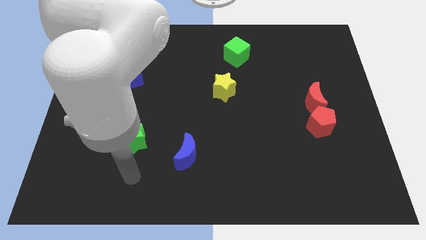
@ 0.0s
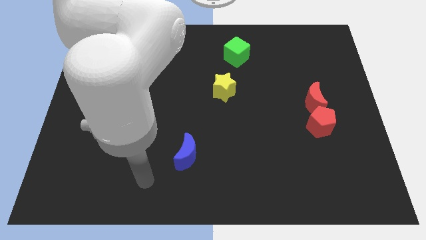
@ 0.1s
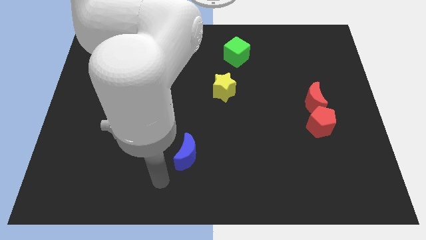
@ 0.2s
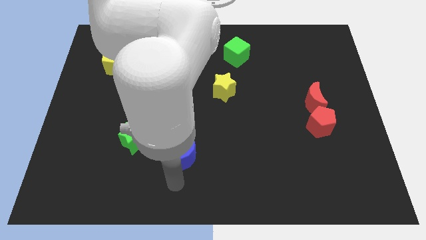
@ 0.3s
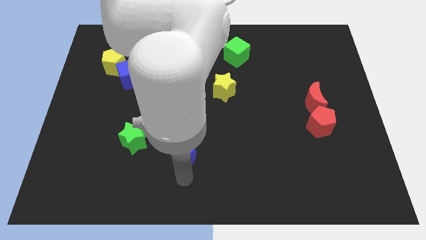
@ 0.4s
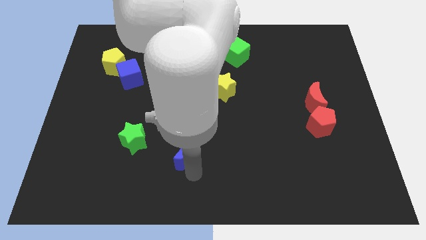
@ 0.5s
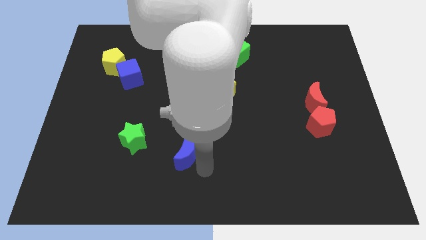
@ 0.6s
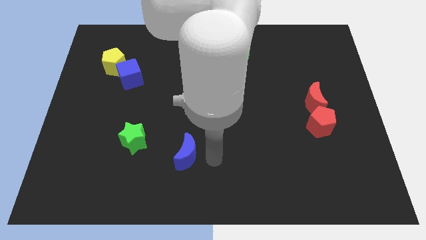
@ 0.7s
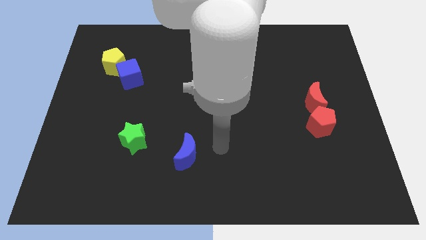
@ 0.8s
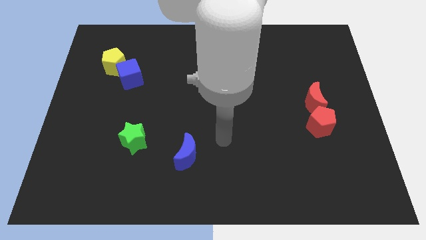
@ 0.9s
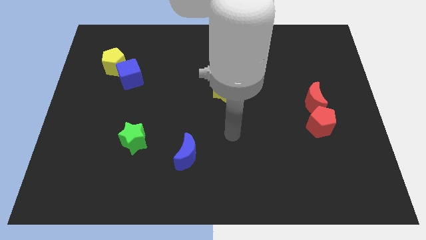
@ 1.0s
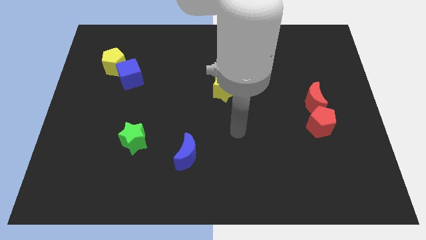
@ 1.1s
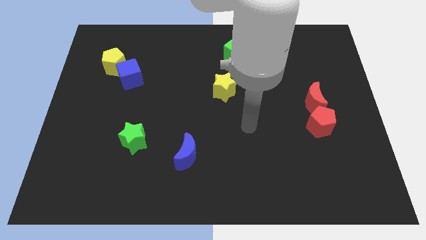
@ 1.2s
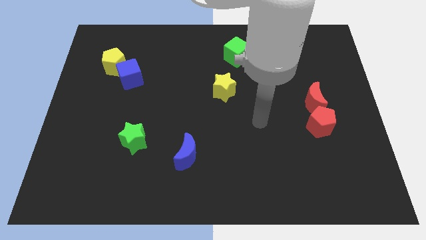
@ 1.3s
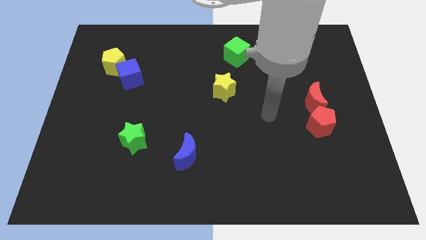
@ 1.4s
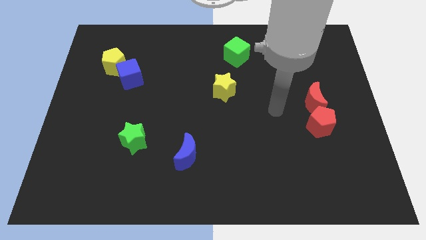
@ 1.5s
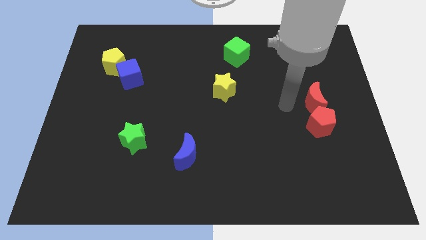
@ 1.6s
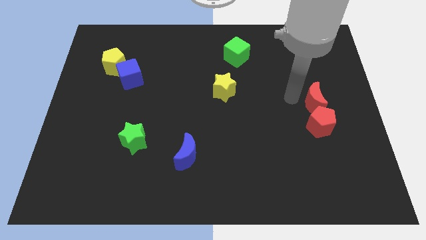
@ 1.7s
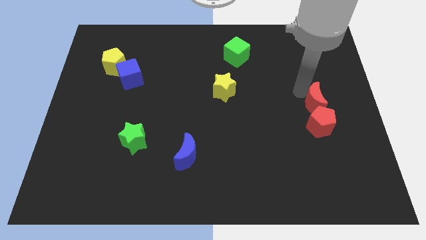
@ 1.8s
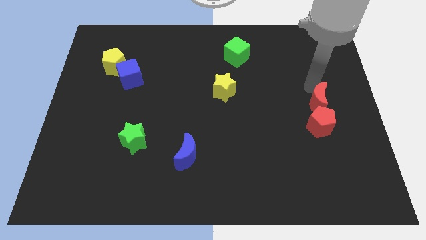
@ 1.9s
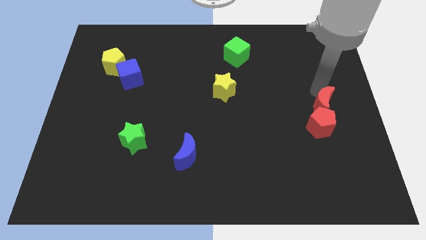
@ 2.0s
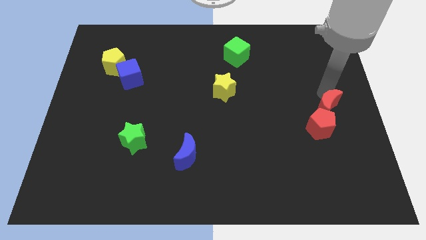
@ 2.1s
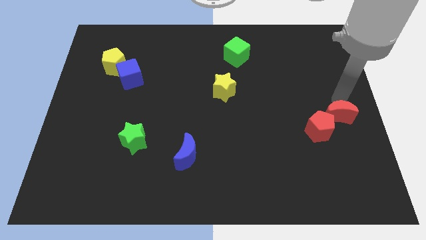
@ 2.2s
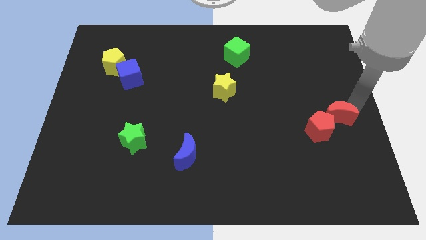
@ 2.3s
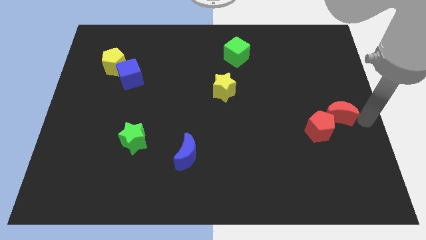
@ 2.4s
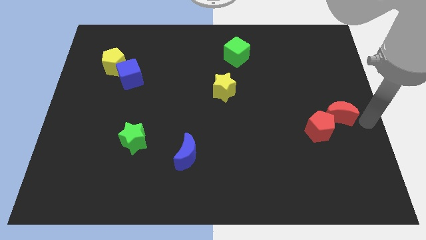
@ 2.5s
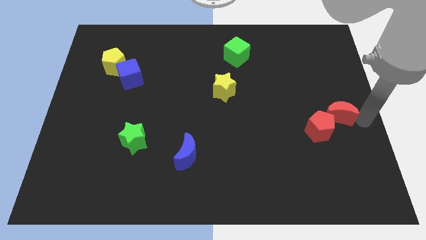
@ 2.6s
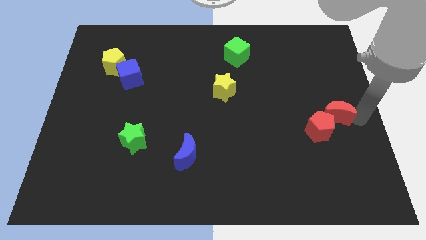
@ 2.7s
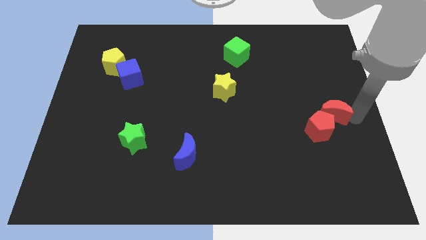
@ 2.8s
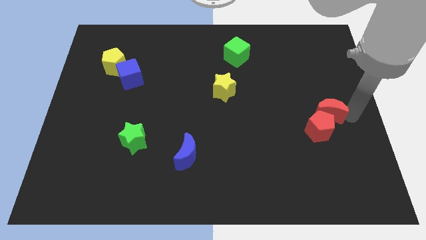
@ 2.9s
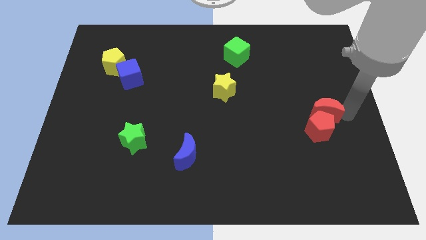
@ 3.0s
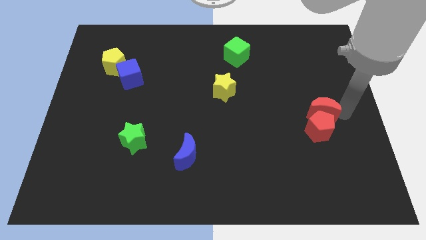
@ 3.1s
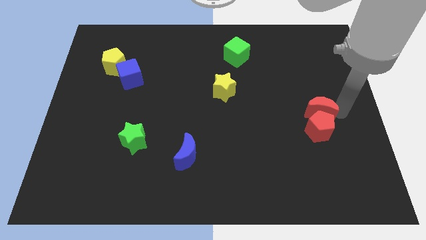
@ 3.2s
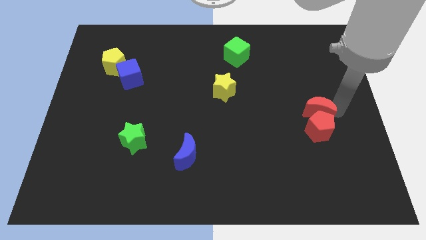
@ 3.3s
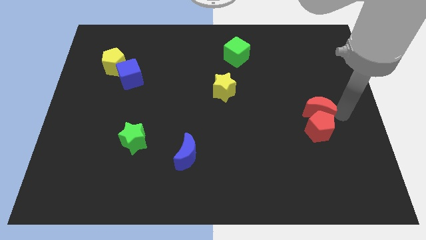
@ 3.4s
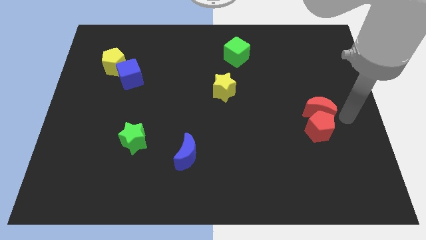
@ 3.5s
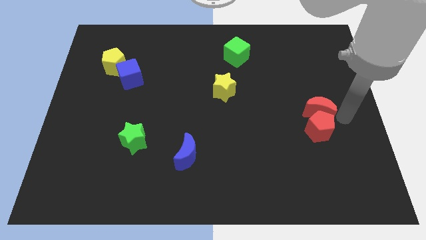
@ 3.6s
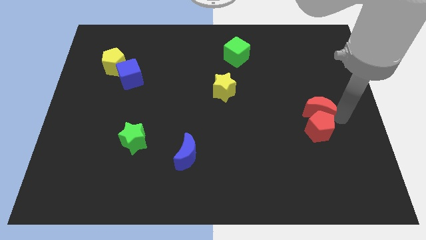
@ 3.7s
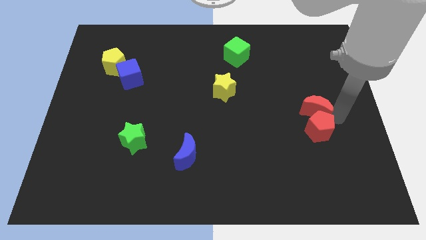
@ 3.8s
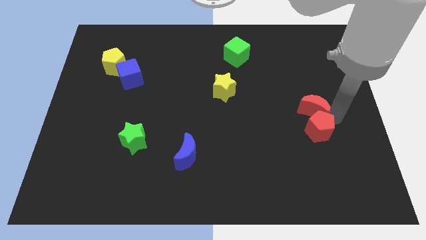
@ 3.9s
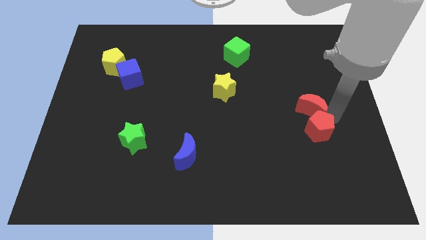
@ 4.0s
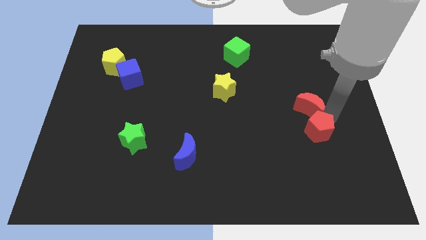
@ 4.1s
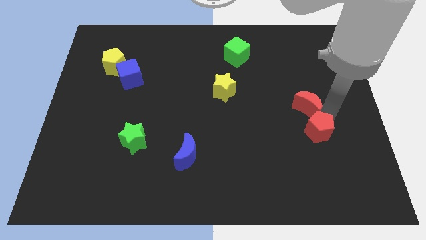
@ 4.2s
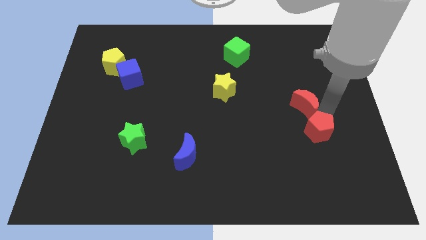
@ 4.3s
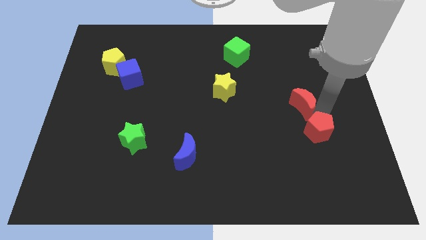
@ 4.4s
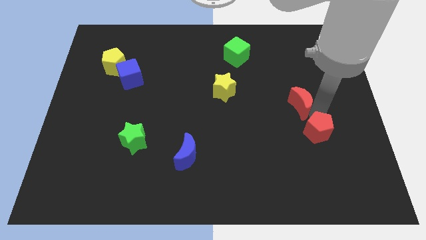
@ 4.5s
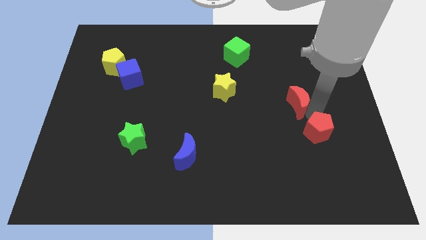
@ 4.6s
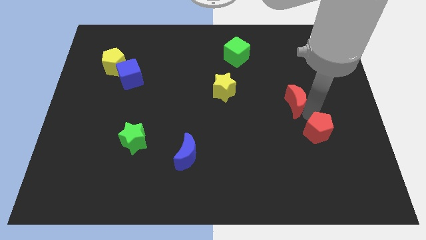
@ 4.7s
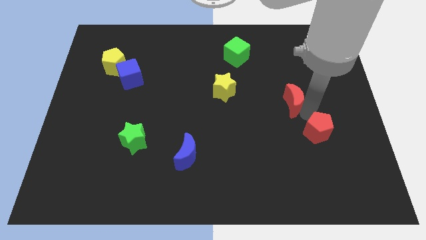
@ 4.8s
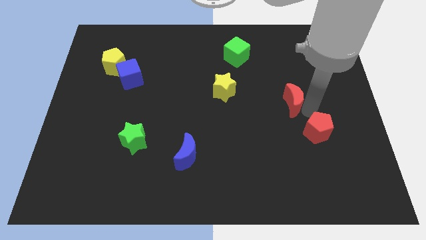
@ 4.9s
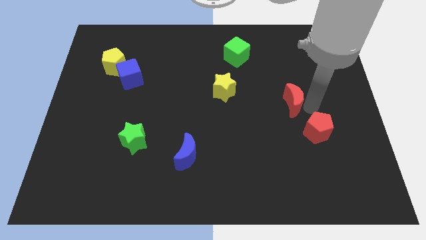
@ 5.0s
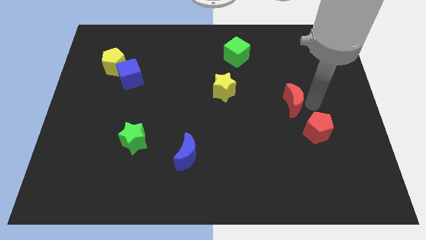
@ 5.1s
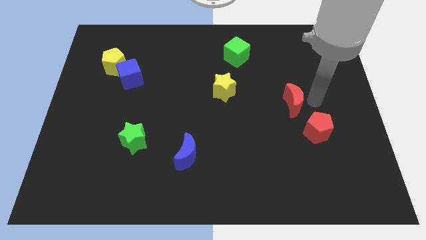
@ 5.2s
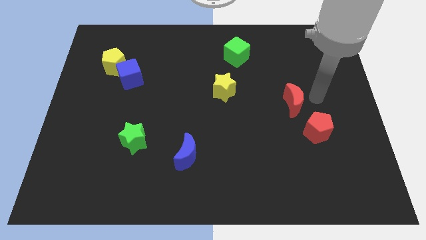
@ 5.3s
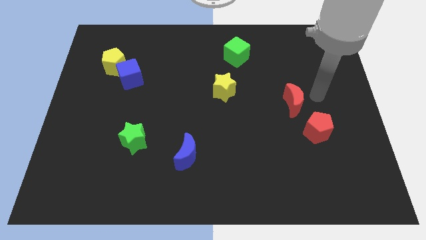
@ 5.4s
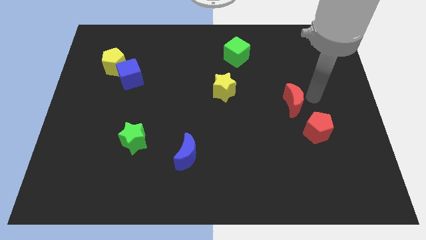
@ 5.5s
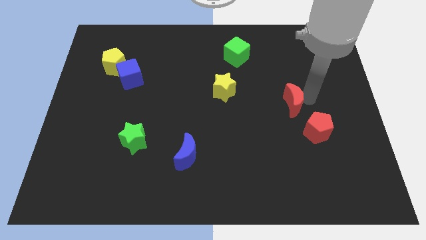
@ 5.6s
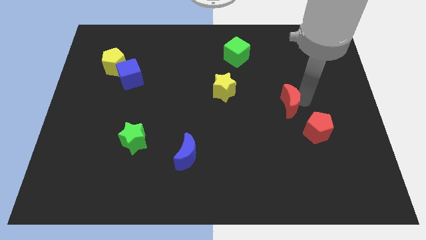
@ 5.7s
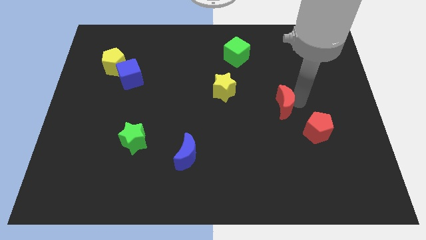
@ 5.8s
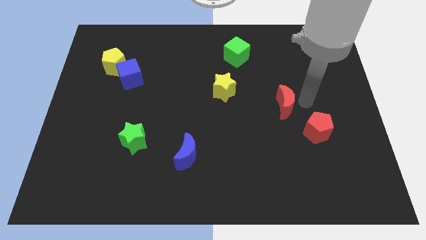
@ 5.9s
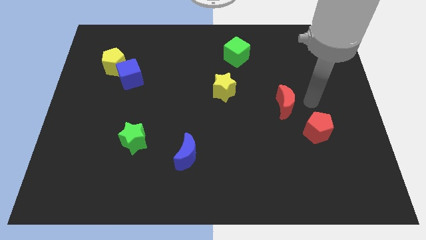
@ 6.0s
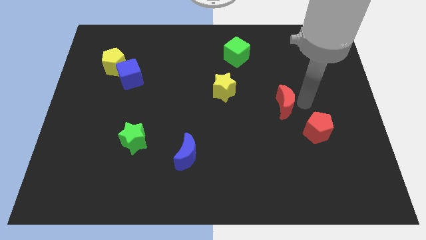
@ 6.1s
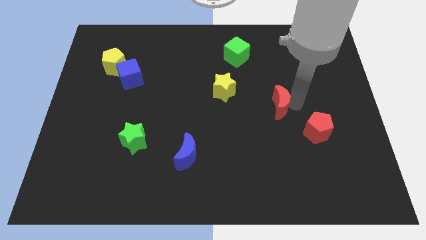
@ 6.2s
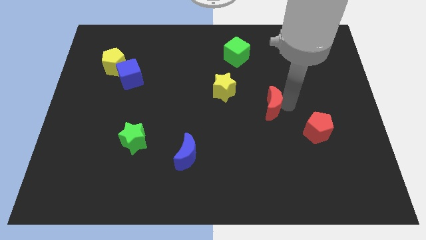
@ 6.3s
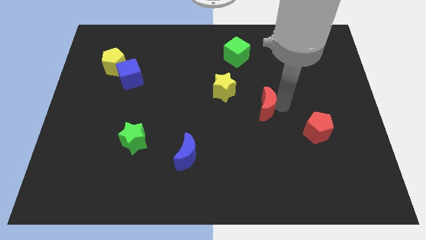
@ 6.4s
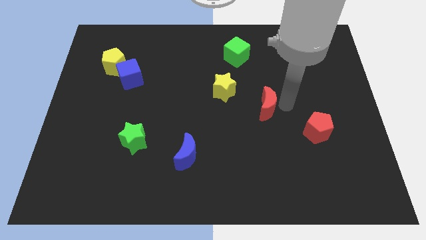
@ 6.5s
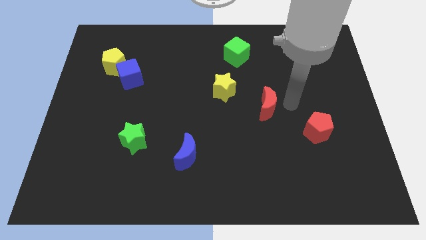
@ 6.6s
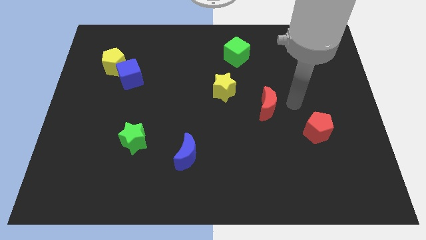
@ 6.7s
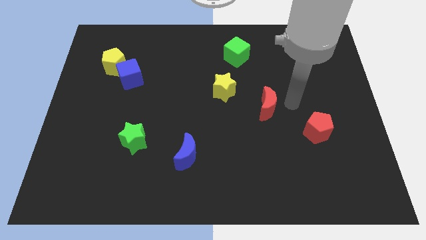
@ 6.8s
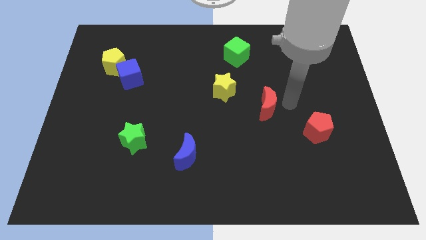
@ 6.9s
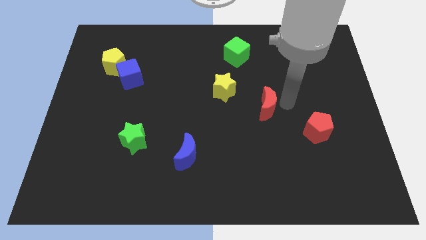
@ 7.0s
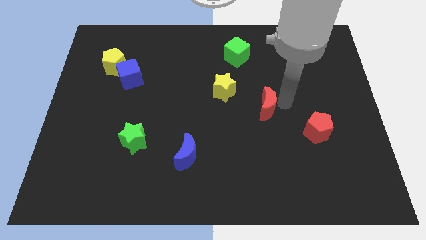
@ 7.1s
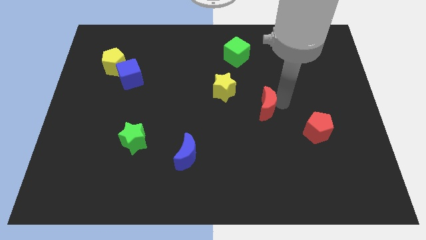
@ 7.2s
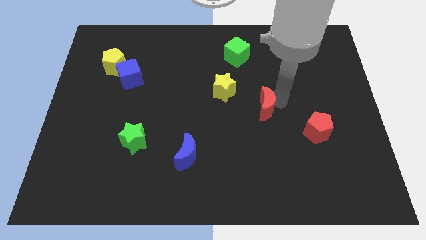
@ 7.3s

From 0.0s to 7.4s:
put the red moon to the center
